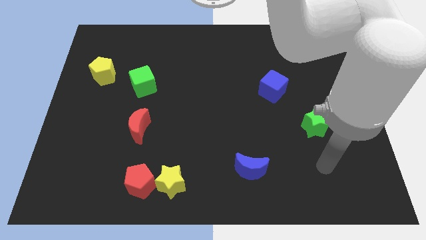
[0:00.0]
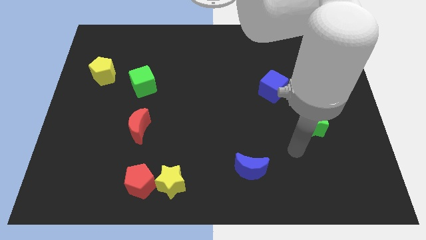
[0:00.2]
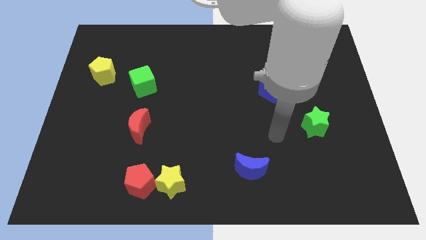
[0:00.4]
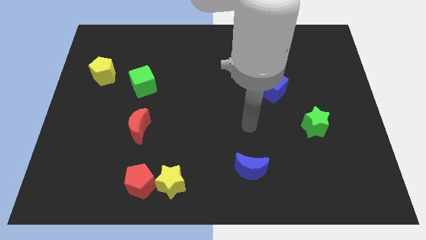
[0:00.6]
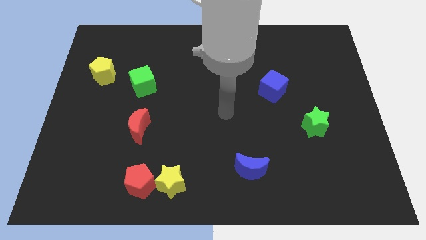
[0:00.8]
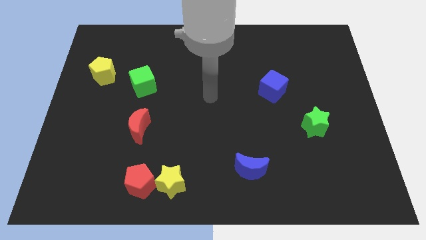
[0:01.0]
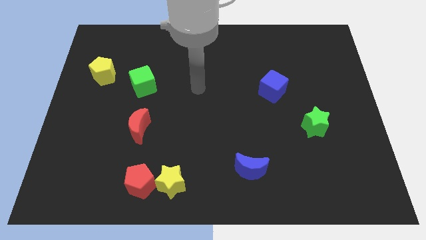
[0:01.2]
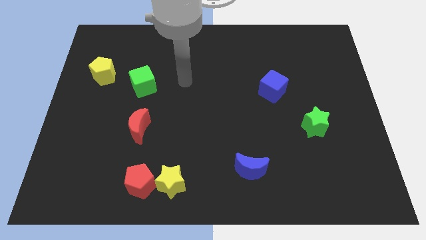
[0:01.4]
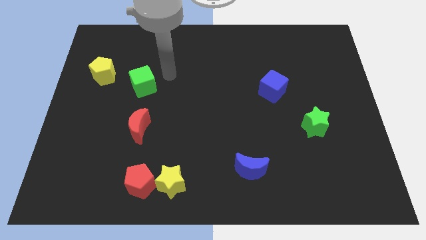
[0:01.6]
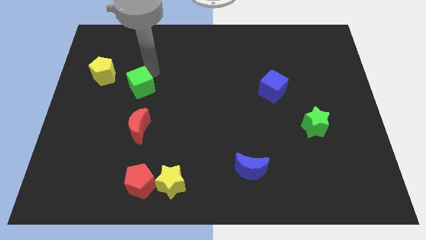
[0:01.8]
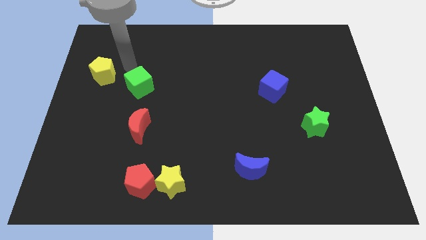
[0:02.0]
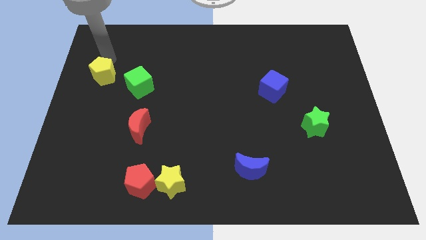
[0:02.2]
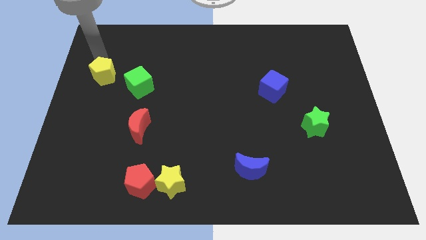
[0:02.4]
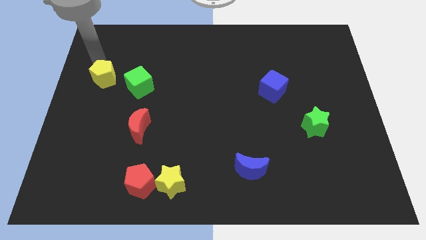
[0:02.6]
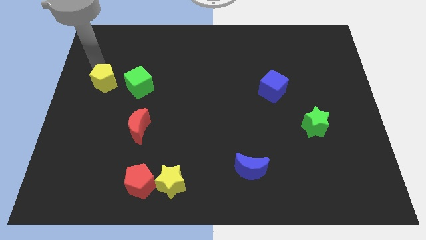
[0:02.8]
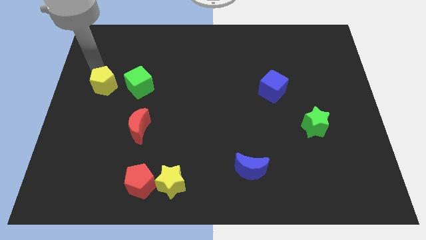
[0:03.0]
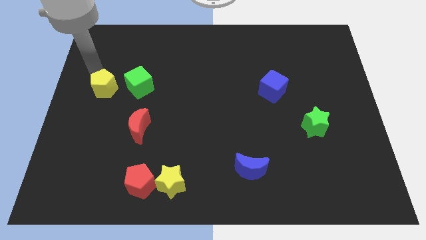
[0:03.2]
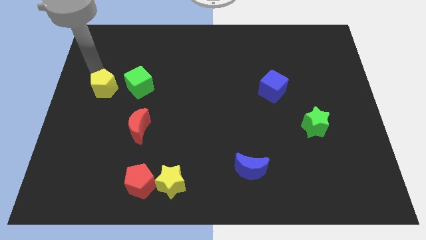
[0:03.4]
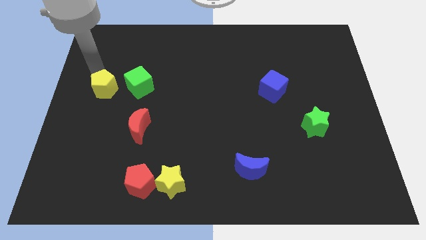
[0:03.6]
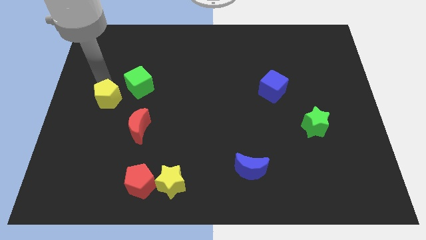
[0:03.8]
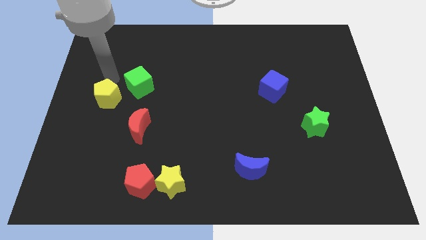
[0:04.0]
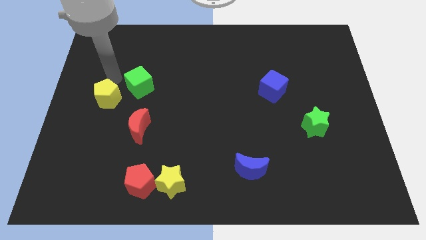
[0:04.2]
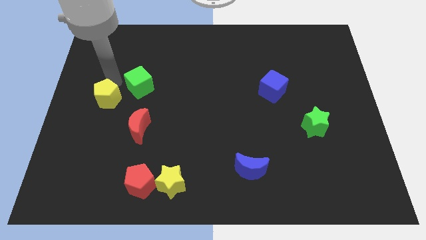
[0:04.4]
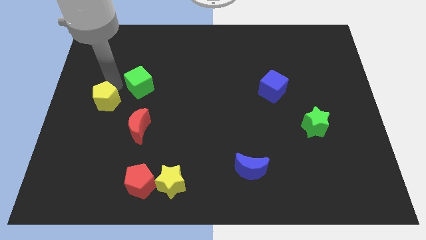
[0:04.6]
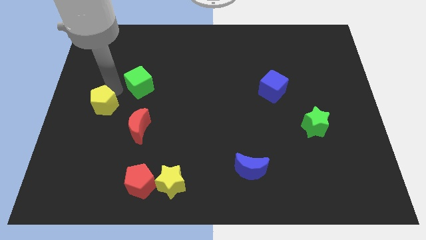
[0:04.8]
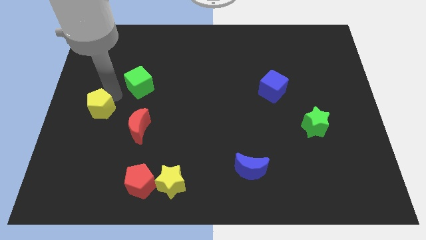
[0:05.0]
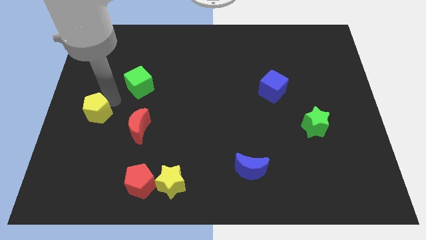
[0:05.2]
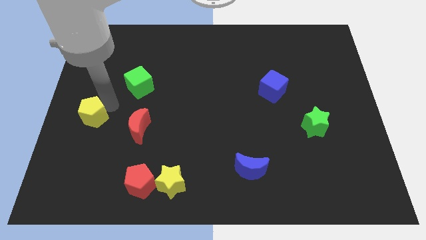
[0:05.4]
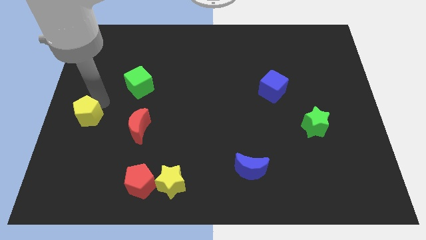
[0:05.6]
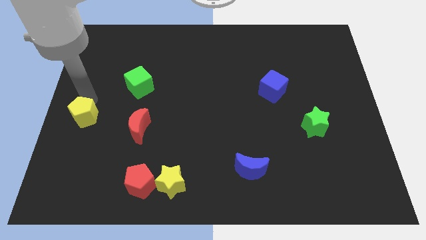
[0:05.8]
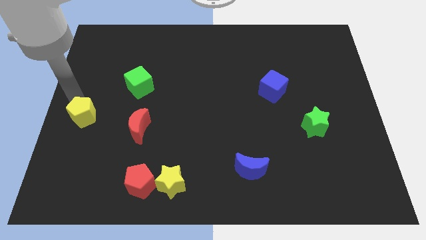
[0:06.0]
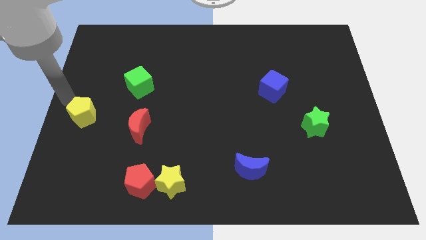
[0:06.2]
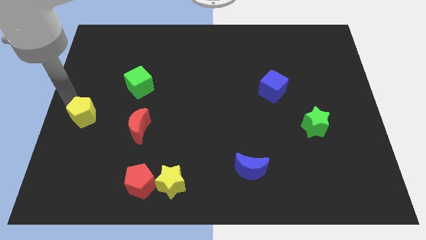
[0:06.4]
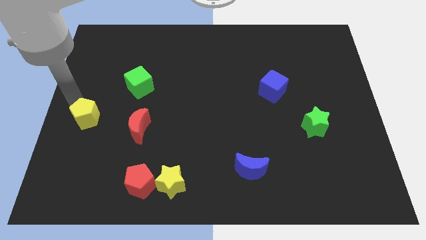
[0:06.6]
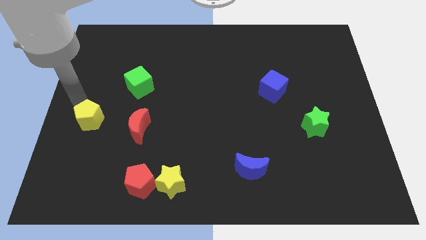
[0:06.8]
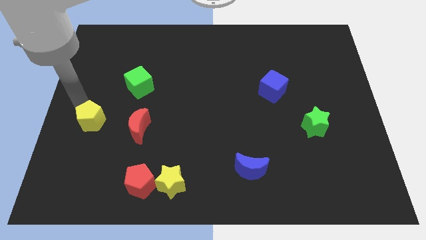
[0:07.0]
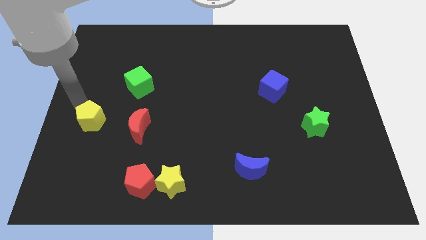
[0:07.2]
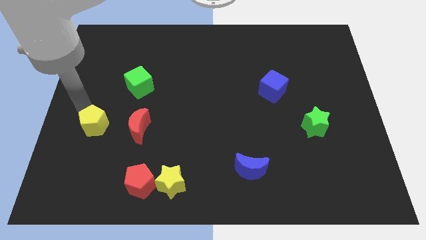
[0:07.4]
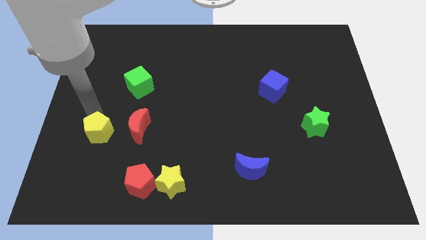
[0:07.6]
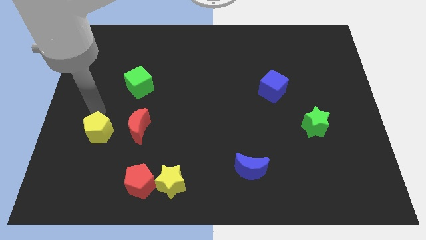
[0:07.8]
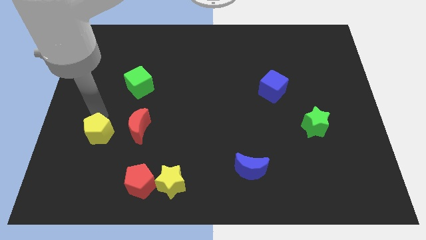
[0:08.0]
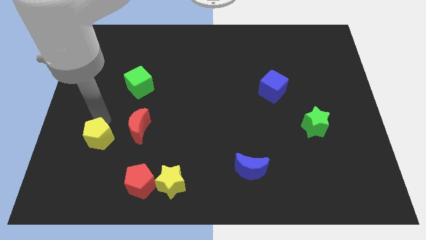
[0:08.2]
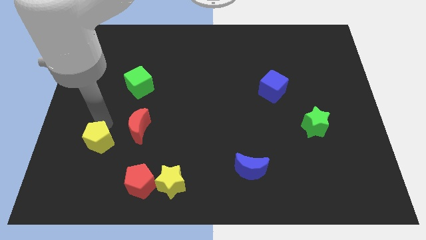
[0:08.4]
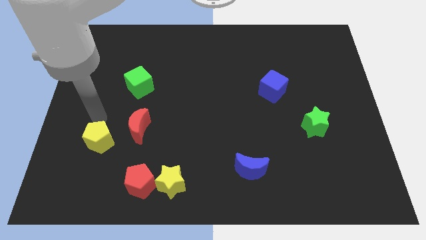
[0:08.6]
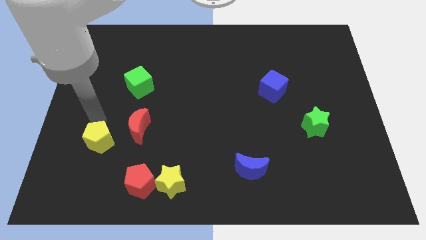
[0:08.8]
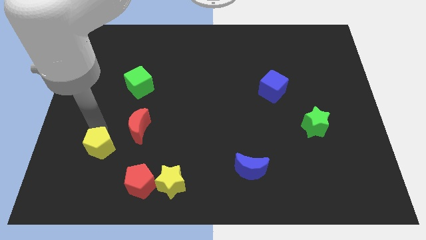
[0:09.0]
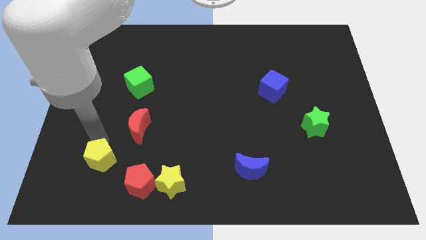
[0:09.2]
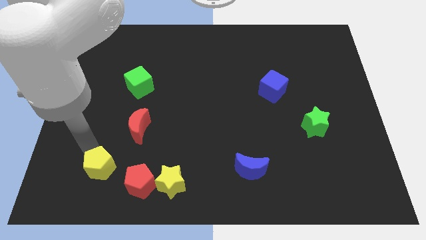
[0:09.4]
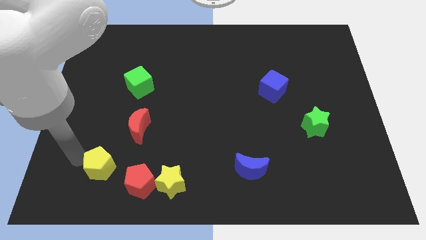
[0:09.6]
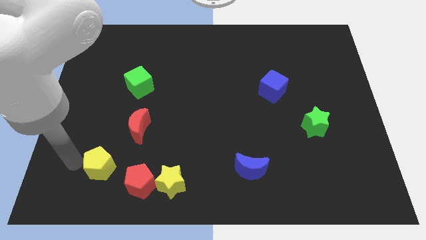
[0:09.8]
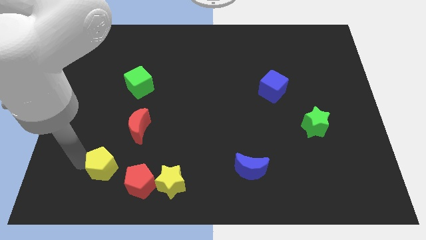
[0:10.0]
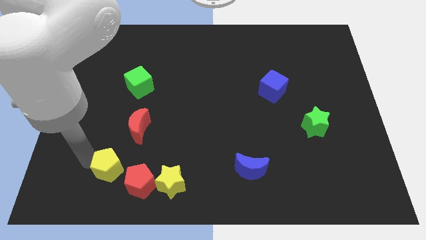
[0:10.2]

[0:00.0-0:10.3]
put the yellow pentagon below the red moon

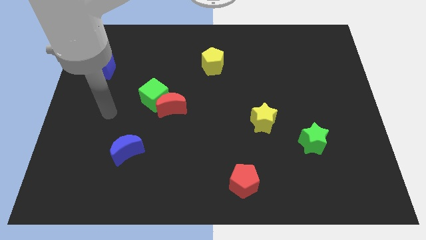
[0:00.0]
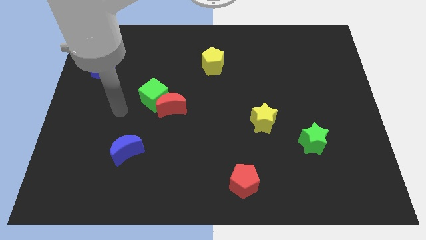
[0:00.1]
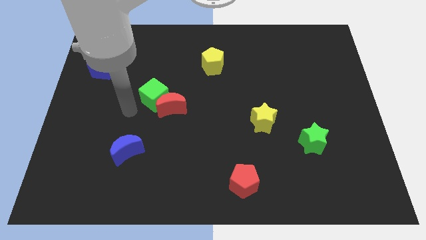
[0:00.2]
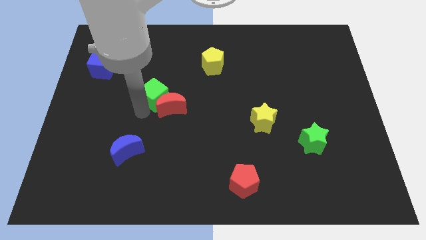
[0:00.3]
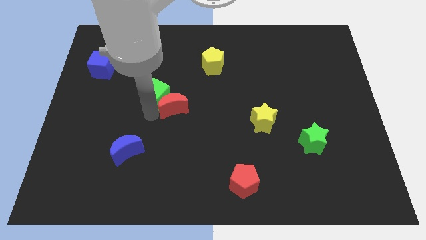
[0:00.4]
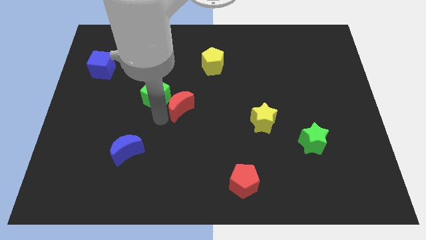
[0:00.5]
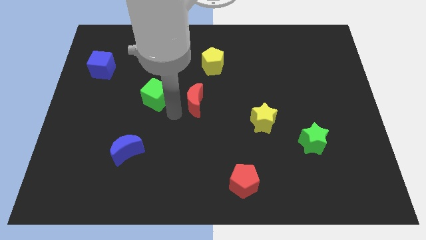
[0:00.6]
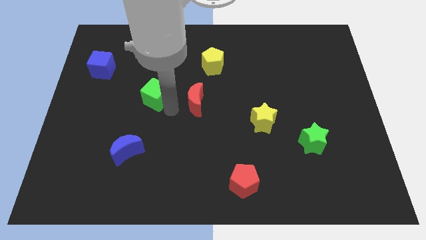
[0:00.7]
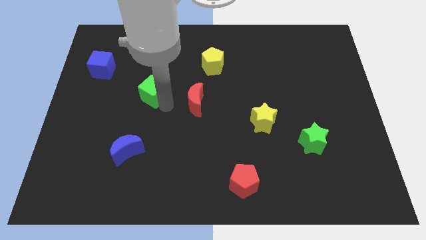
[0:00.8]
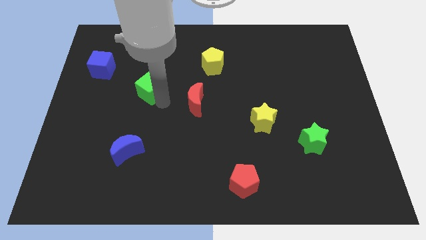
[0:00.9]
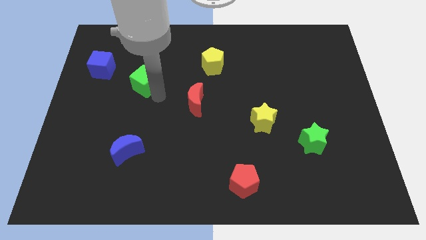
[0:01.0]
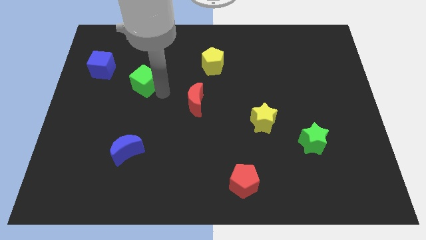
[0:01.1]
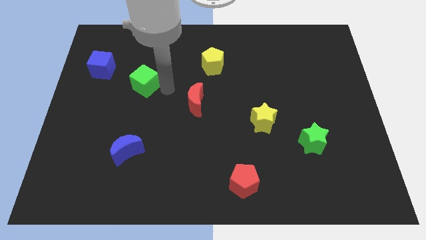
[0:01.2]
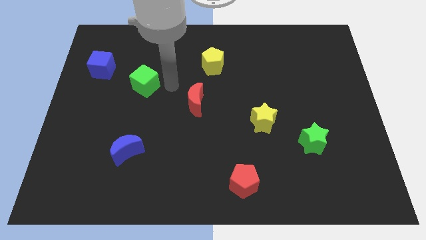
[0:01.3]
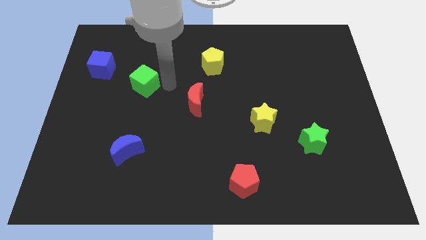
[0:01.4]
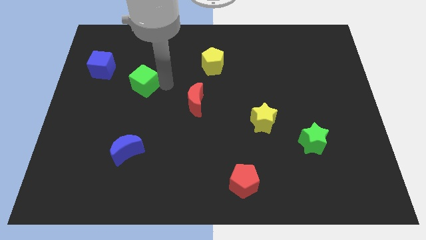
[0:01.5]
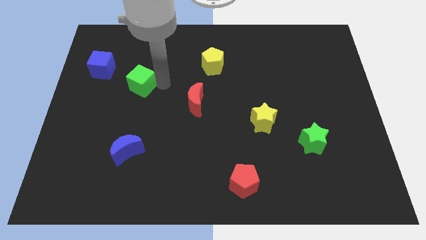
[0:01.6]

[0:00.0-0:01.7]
put the green cube diagonally down and to the right of the blue cube

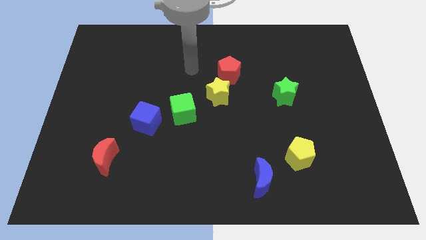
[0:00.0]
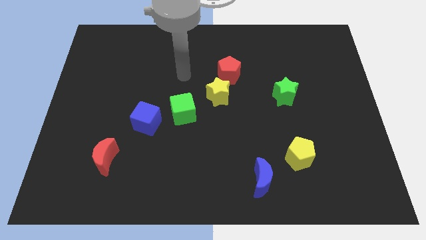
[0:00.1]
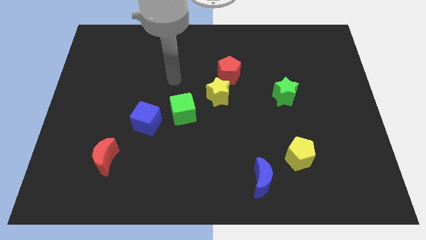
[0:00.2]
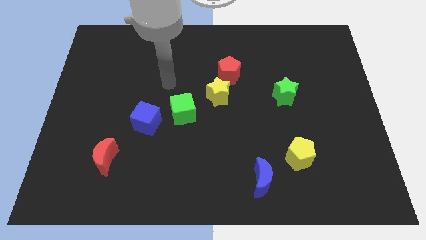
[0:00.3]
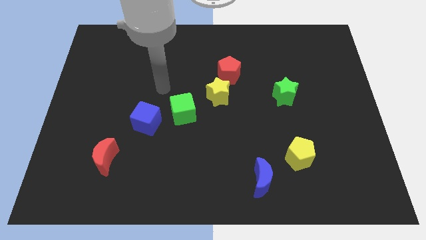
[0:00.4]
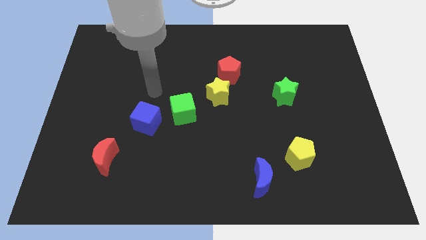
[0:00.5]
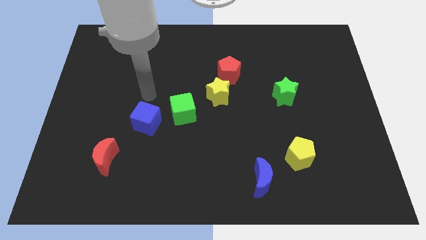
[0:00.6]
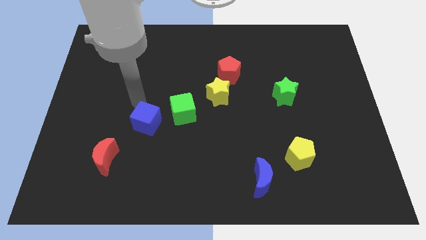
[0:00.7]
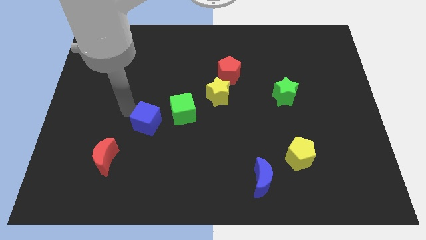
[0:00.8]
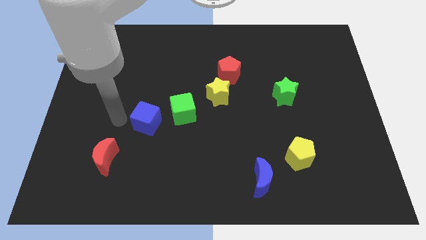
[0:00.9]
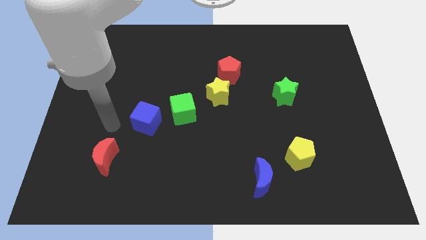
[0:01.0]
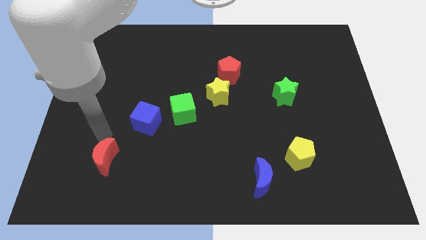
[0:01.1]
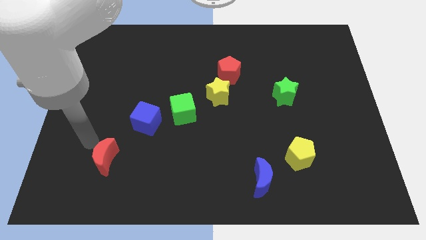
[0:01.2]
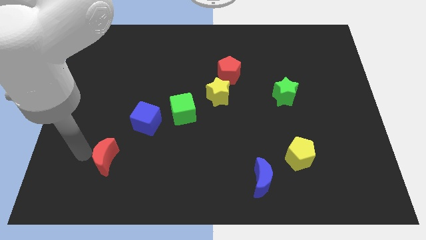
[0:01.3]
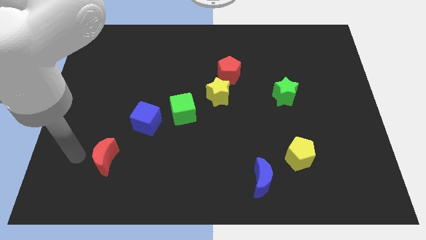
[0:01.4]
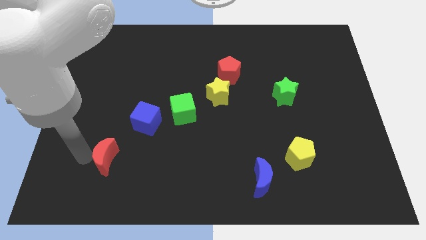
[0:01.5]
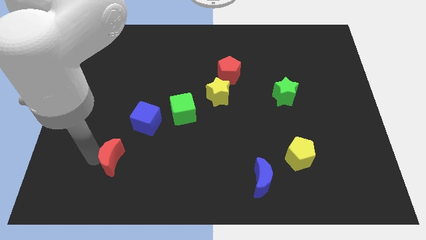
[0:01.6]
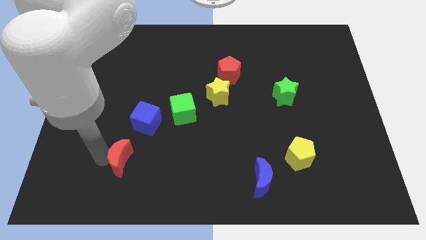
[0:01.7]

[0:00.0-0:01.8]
slide the red moon below the blue cube
